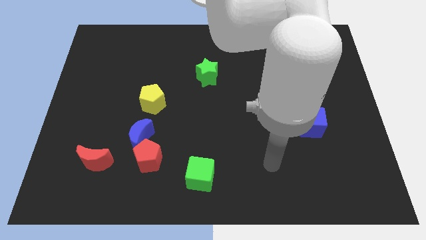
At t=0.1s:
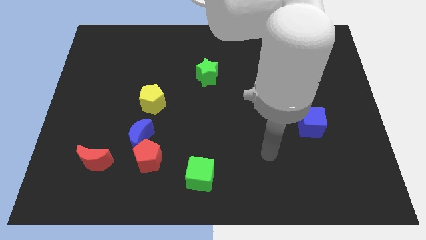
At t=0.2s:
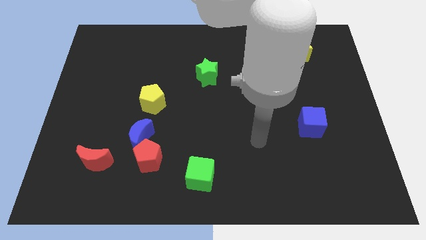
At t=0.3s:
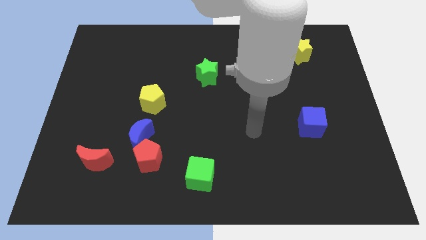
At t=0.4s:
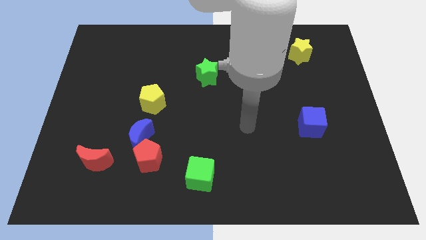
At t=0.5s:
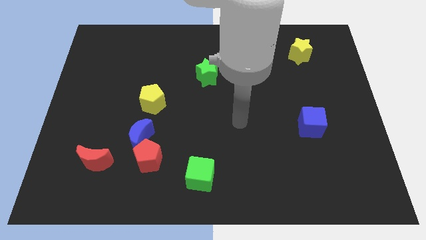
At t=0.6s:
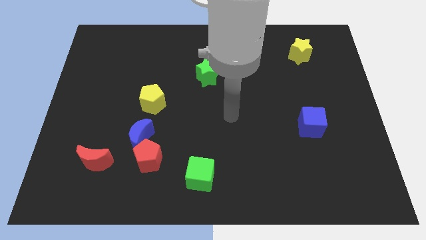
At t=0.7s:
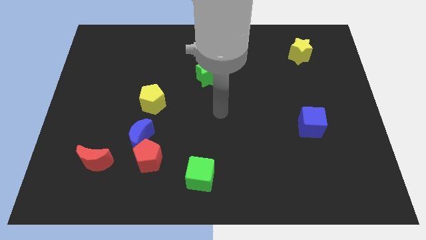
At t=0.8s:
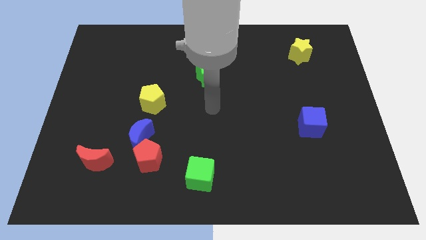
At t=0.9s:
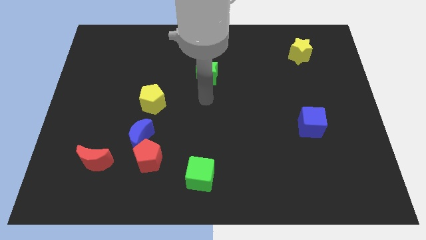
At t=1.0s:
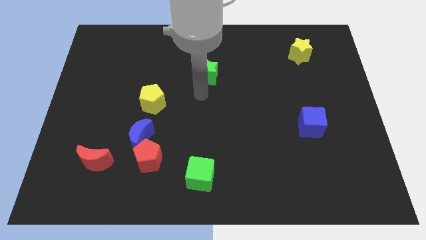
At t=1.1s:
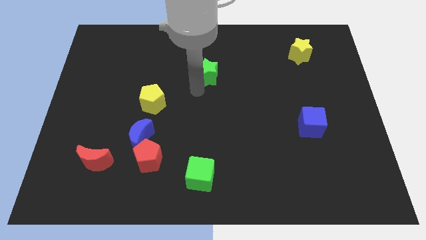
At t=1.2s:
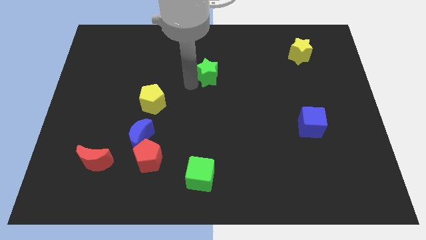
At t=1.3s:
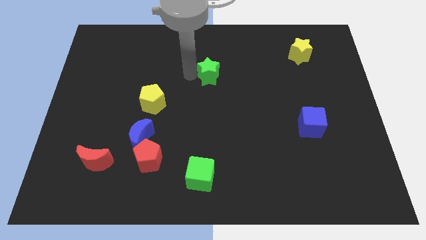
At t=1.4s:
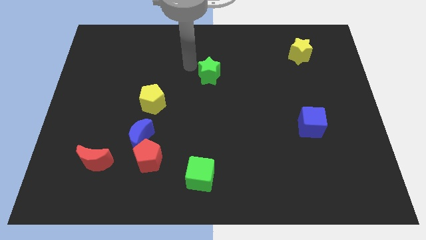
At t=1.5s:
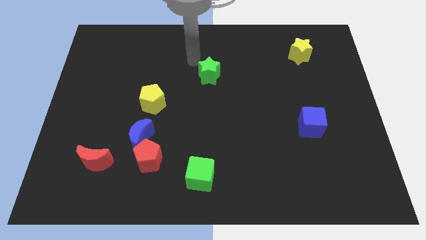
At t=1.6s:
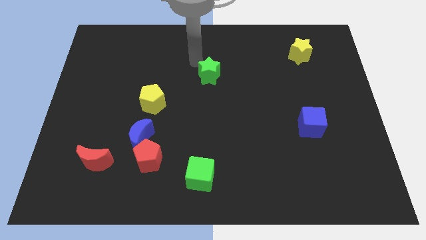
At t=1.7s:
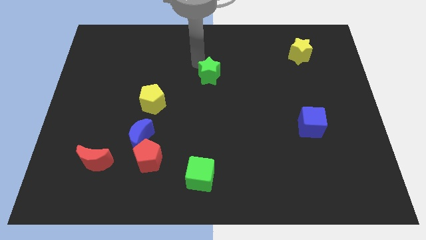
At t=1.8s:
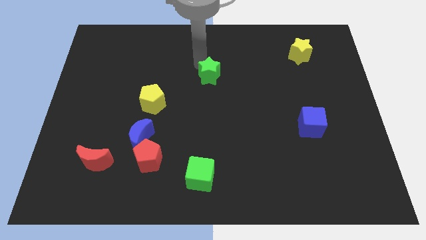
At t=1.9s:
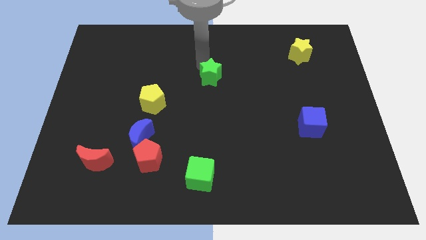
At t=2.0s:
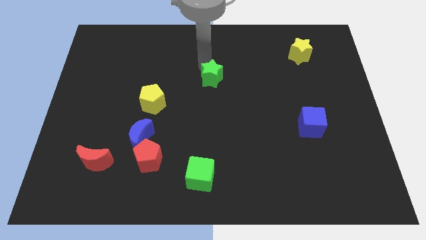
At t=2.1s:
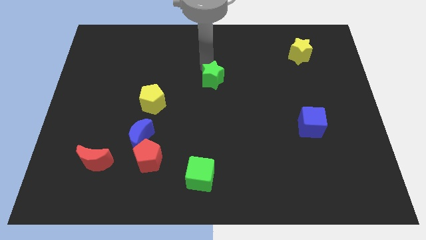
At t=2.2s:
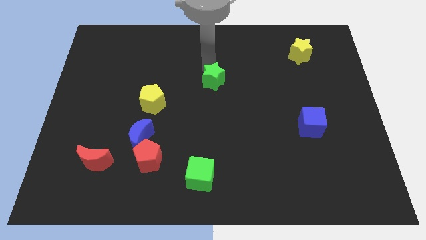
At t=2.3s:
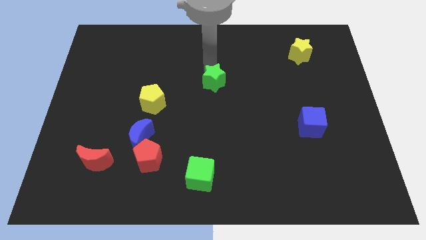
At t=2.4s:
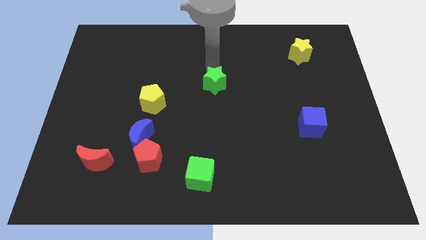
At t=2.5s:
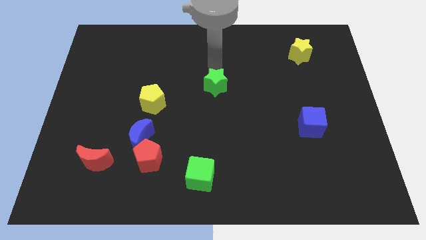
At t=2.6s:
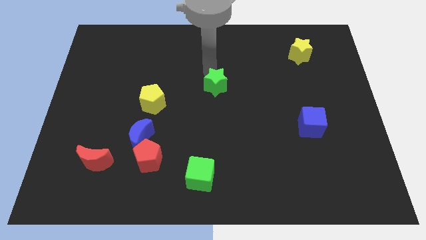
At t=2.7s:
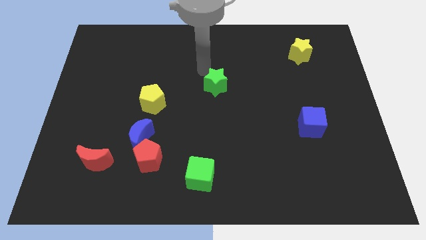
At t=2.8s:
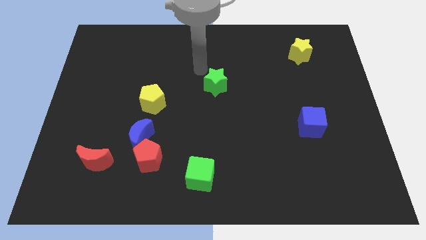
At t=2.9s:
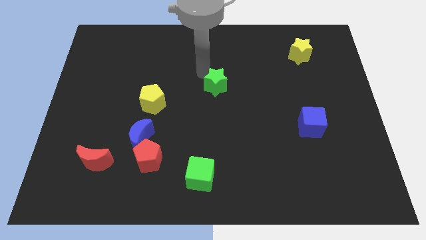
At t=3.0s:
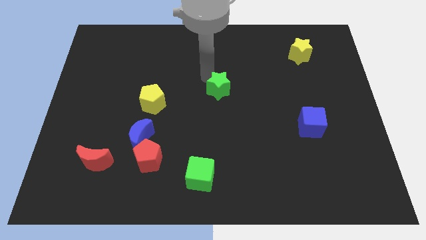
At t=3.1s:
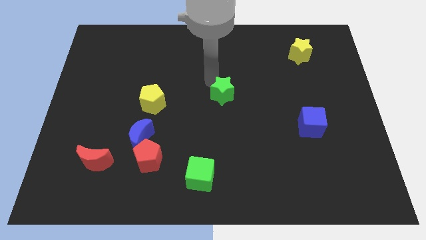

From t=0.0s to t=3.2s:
move the green star diagonally downwards and to the right a little bit

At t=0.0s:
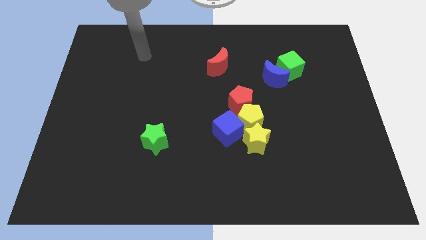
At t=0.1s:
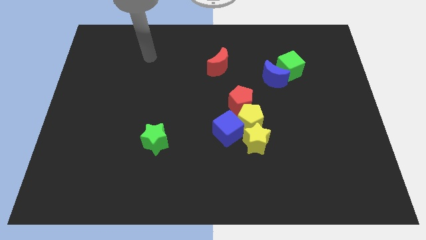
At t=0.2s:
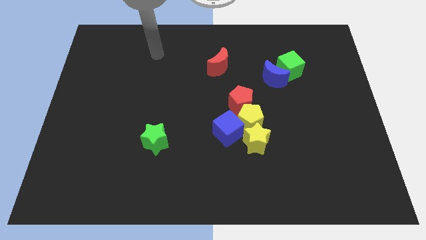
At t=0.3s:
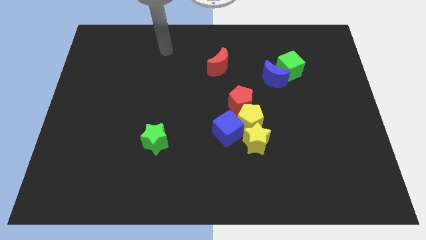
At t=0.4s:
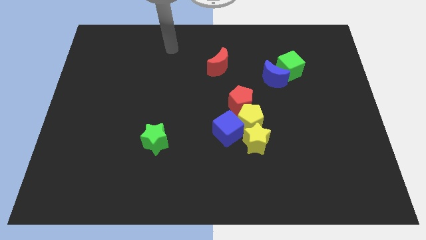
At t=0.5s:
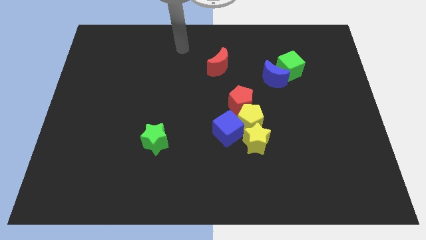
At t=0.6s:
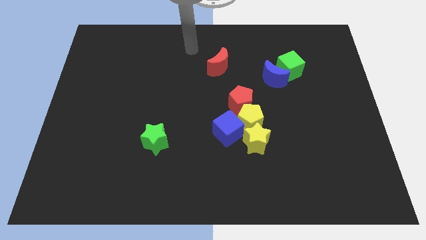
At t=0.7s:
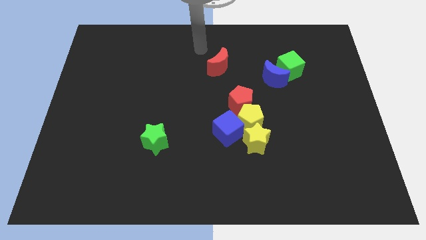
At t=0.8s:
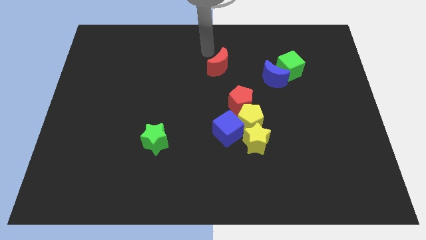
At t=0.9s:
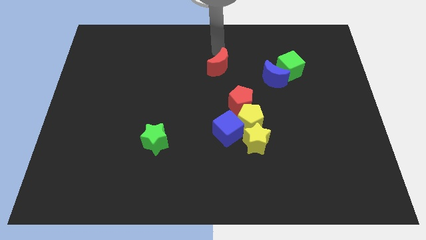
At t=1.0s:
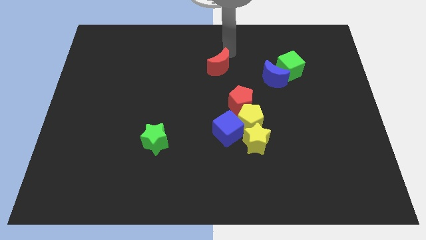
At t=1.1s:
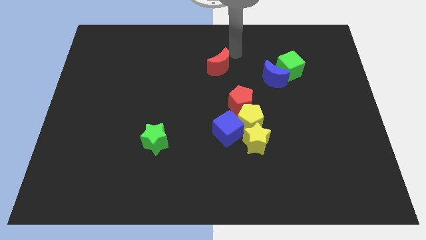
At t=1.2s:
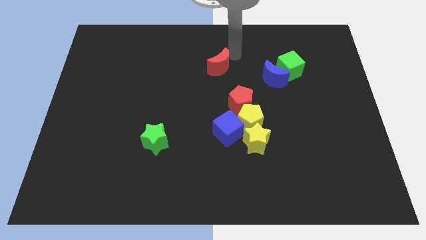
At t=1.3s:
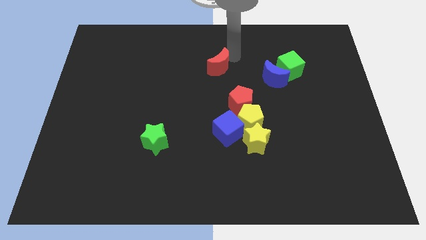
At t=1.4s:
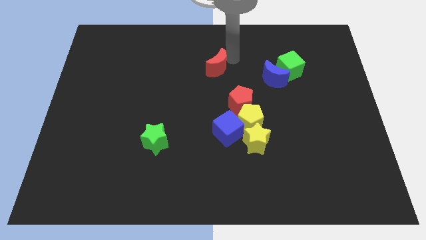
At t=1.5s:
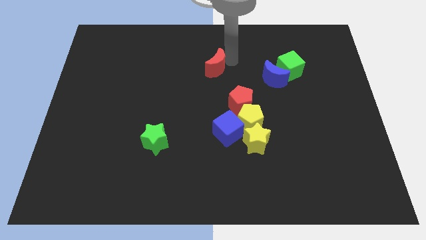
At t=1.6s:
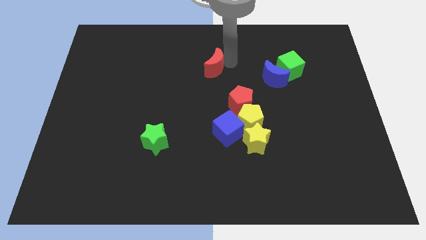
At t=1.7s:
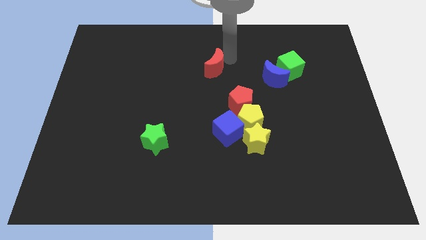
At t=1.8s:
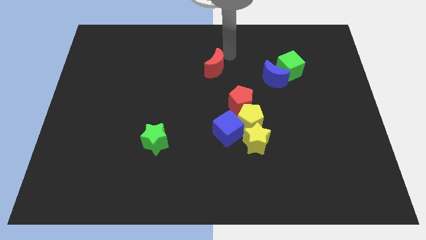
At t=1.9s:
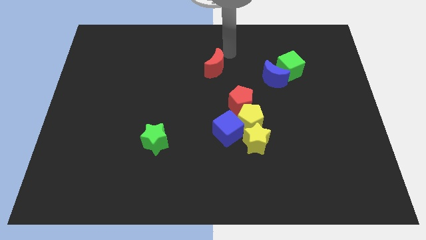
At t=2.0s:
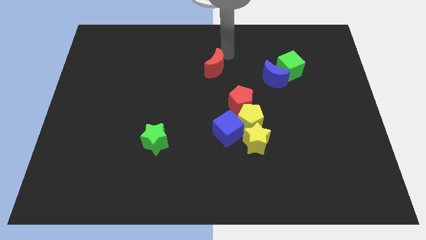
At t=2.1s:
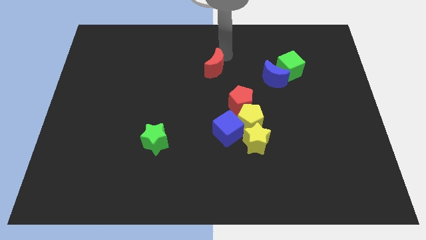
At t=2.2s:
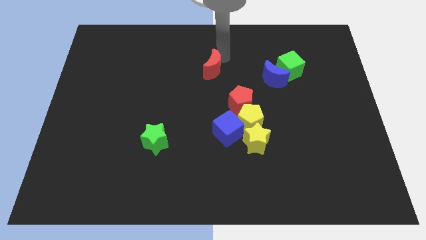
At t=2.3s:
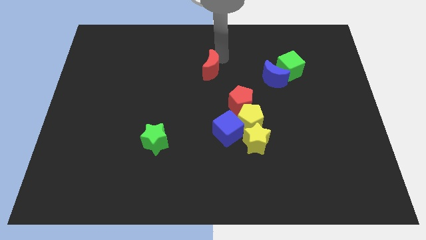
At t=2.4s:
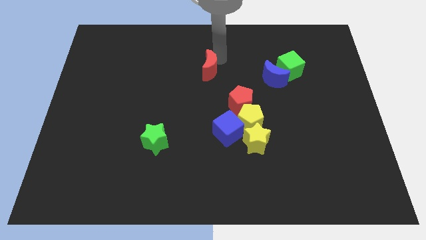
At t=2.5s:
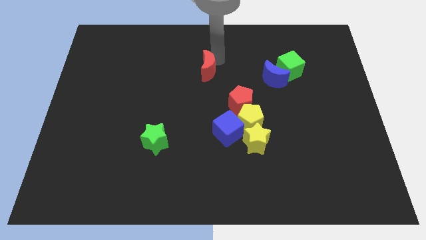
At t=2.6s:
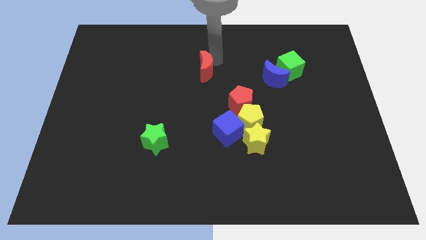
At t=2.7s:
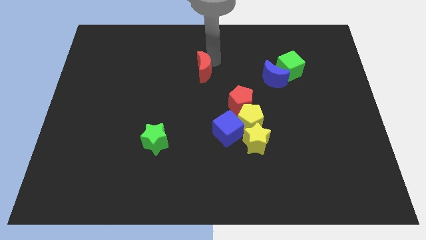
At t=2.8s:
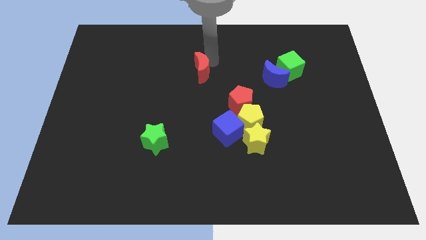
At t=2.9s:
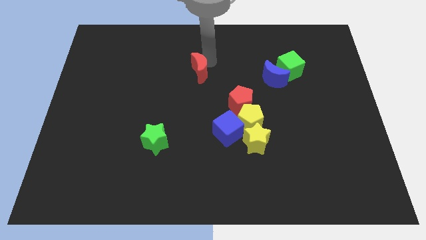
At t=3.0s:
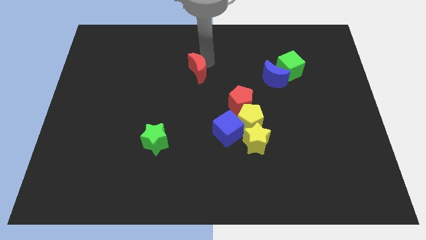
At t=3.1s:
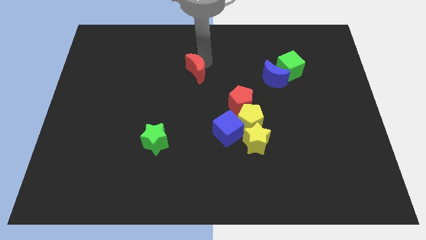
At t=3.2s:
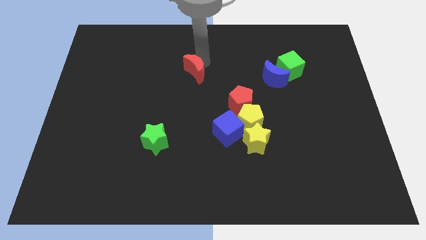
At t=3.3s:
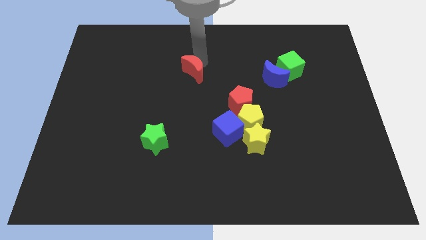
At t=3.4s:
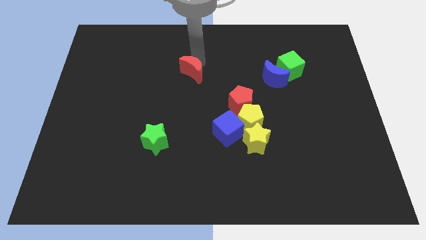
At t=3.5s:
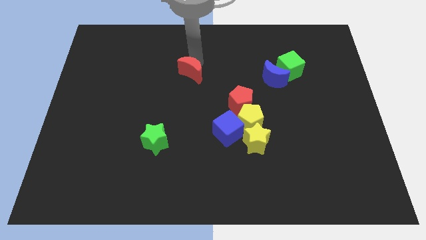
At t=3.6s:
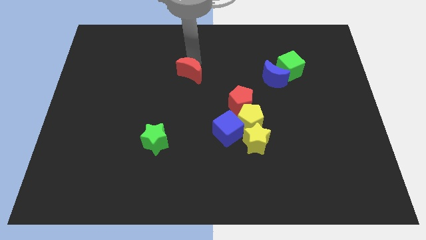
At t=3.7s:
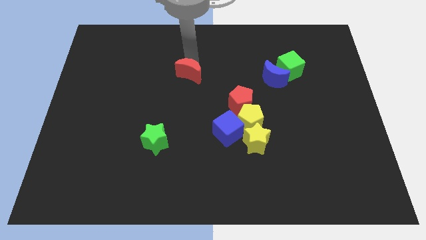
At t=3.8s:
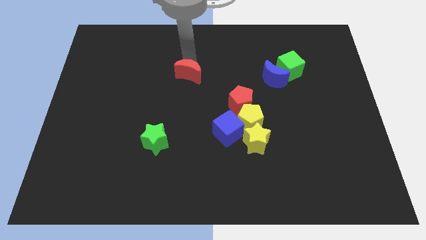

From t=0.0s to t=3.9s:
slightly slide the red moon downwards and left diagonally

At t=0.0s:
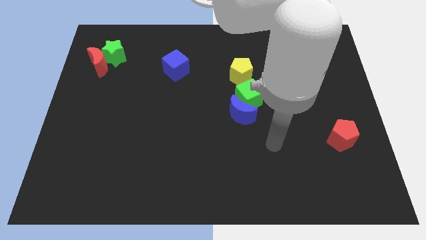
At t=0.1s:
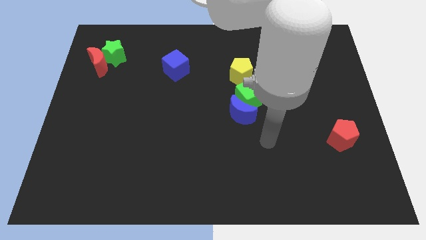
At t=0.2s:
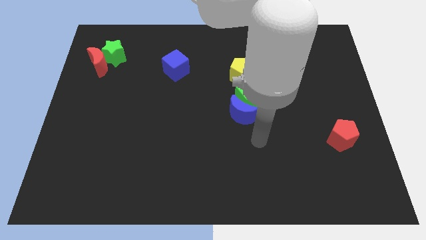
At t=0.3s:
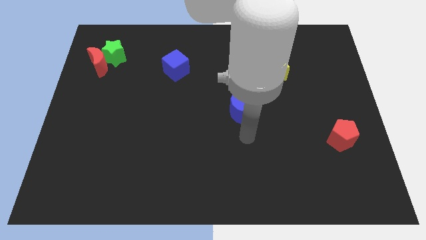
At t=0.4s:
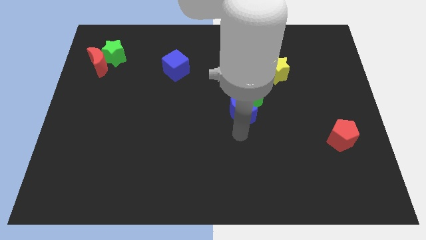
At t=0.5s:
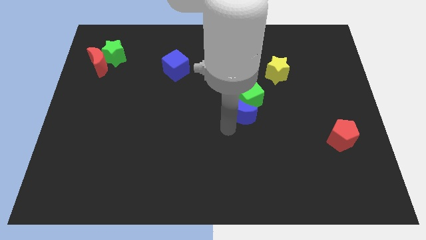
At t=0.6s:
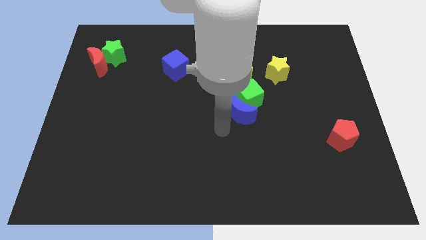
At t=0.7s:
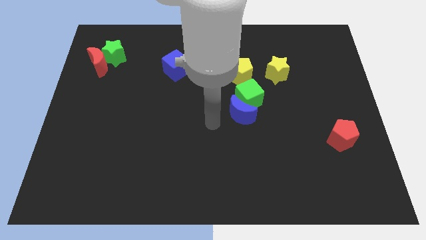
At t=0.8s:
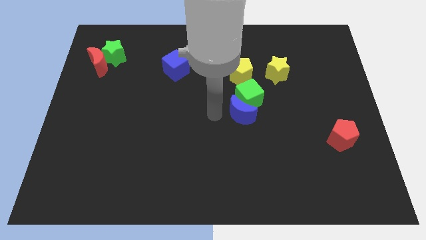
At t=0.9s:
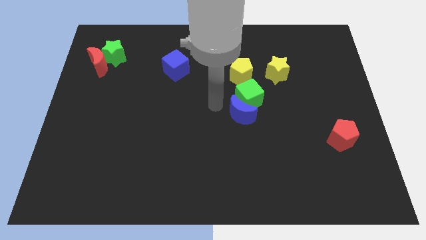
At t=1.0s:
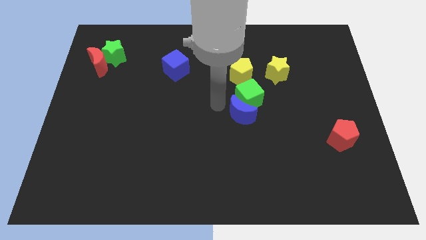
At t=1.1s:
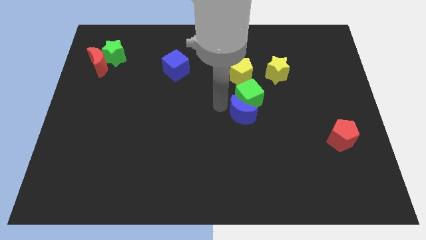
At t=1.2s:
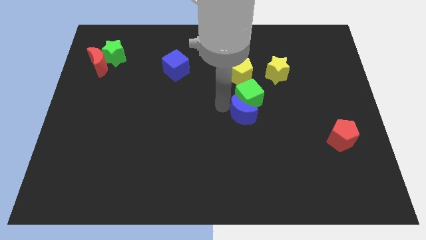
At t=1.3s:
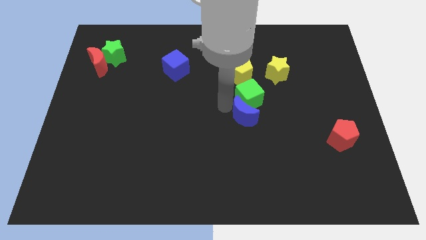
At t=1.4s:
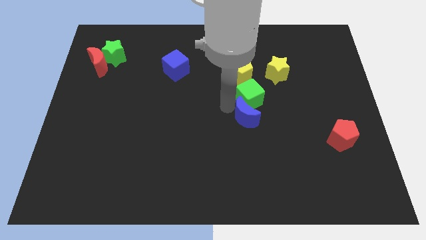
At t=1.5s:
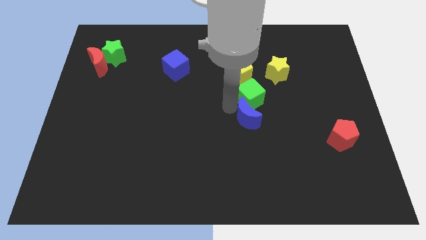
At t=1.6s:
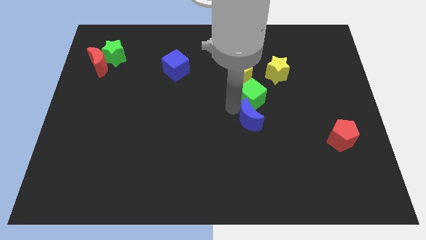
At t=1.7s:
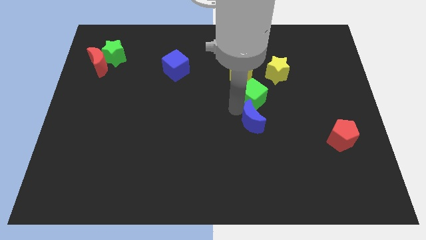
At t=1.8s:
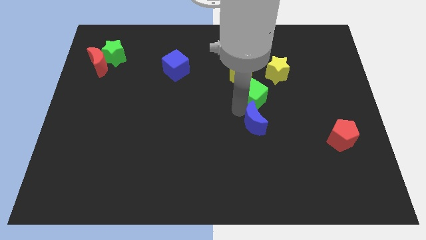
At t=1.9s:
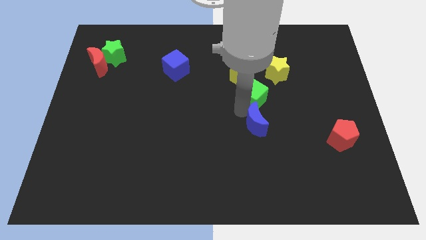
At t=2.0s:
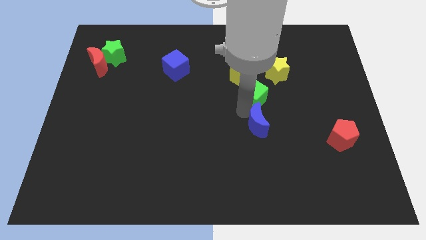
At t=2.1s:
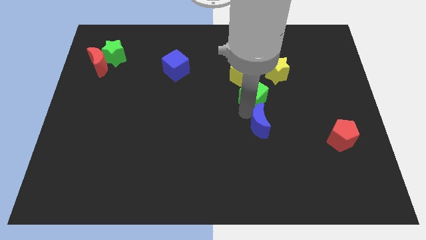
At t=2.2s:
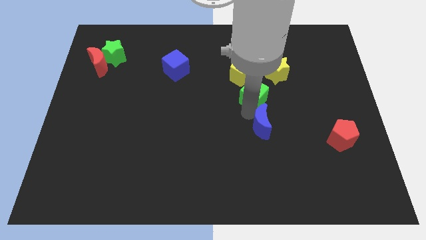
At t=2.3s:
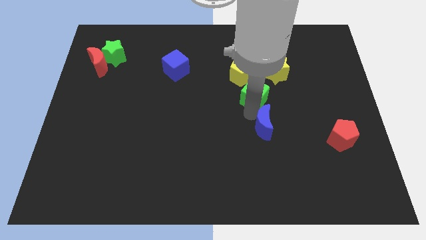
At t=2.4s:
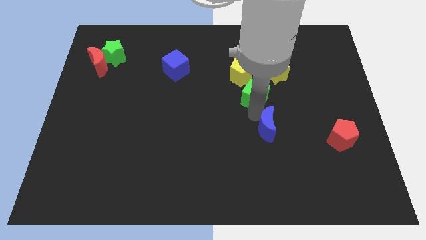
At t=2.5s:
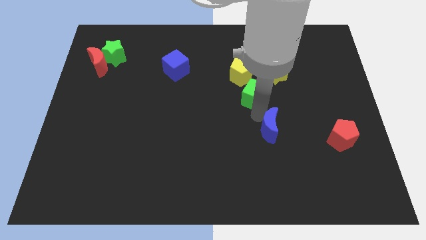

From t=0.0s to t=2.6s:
slightly move the blue moon downwards and right
